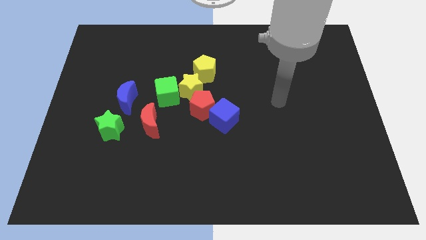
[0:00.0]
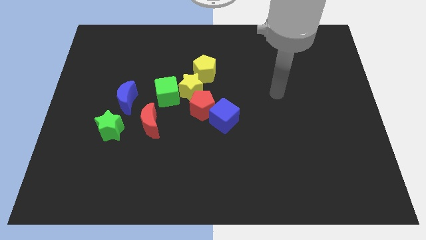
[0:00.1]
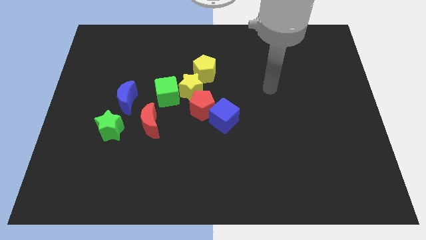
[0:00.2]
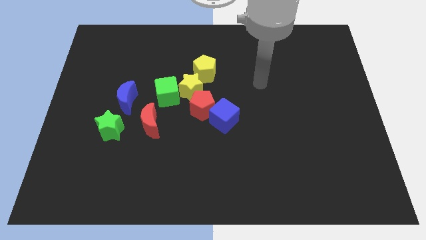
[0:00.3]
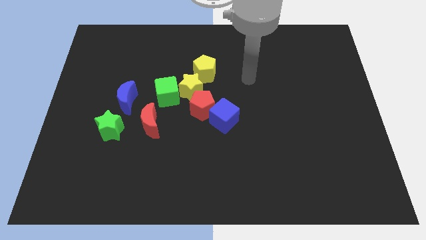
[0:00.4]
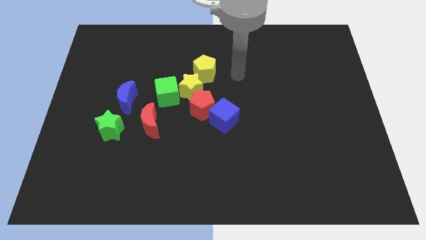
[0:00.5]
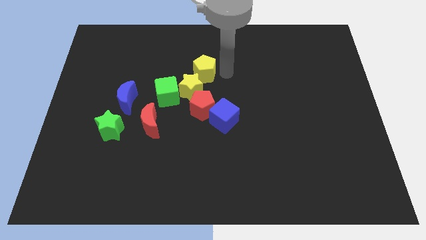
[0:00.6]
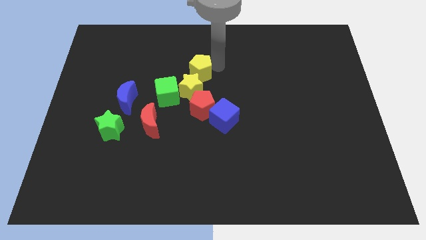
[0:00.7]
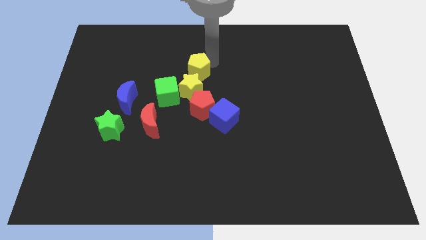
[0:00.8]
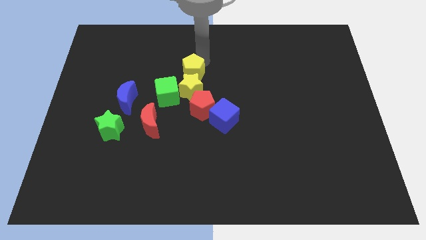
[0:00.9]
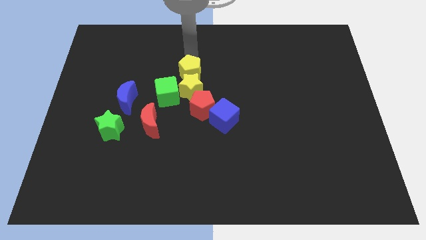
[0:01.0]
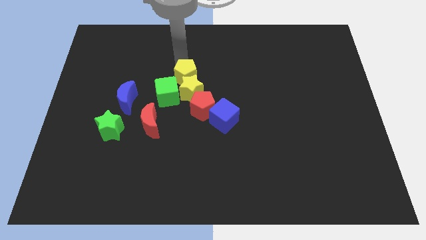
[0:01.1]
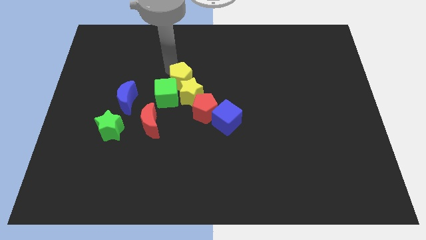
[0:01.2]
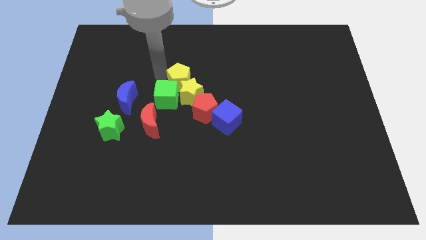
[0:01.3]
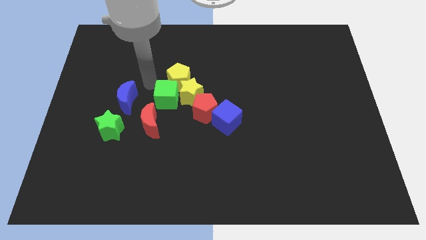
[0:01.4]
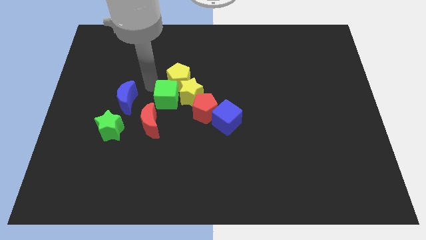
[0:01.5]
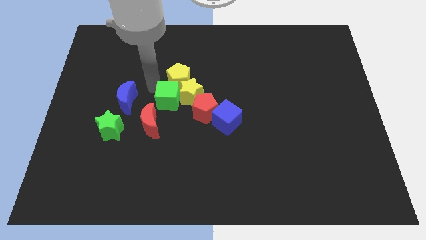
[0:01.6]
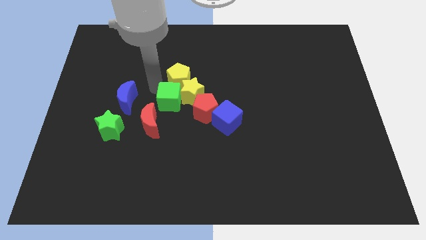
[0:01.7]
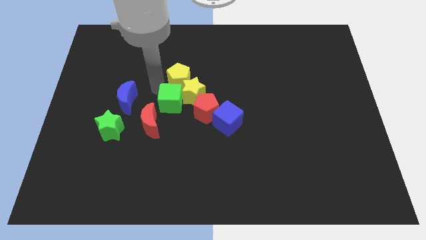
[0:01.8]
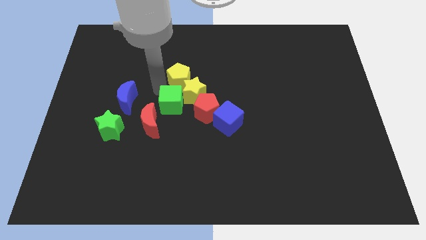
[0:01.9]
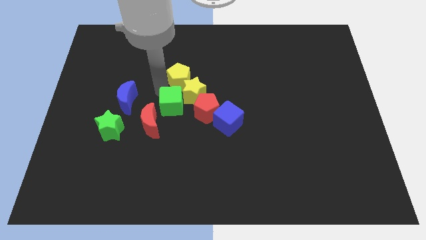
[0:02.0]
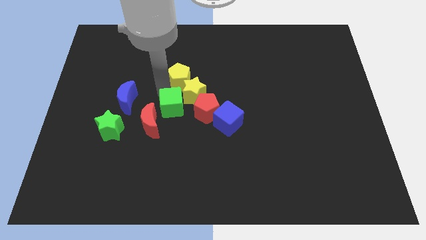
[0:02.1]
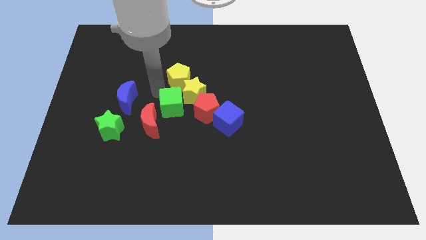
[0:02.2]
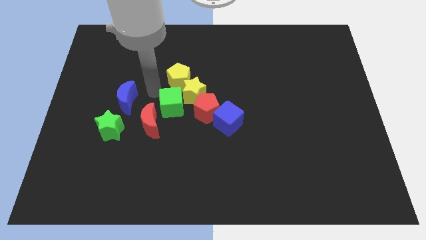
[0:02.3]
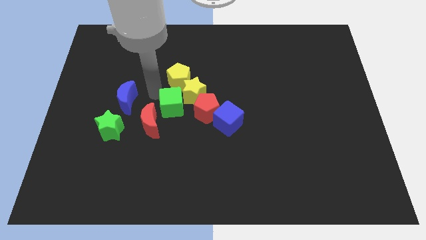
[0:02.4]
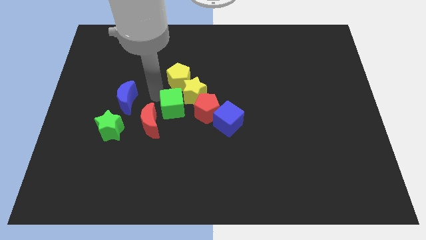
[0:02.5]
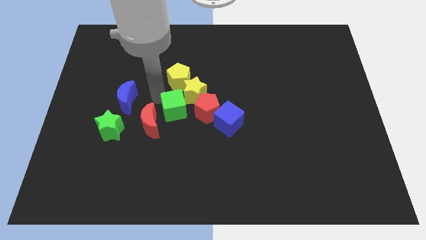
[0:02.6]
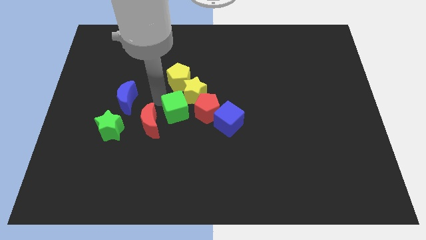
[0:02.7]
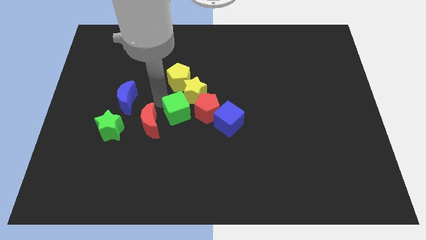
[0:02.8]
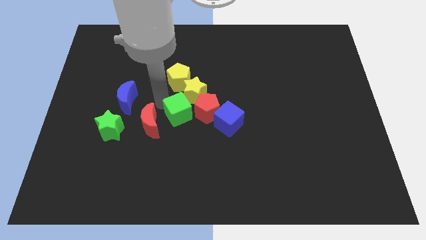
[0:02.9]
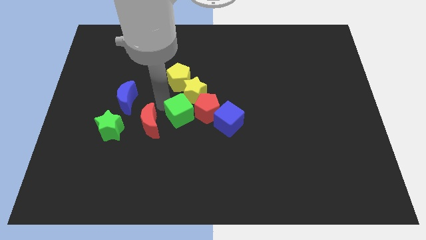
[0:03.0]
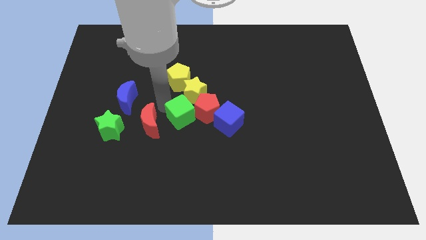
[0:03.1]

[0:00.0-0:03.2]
slightly push the green cube diagonally down and to the right

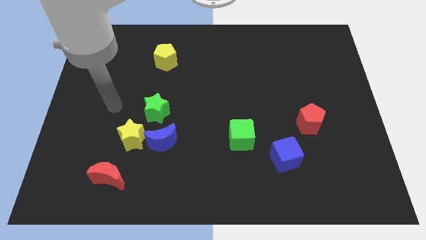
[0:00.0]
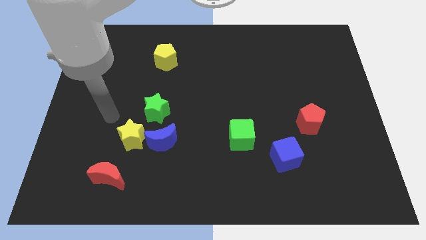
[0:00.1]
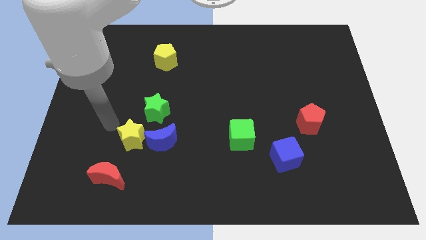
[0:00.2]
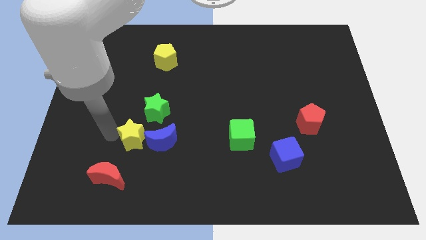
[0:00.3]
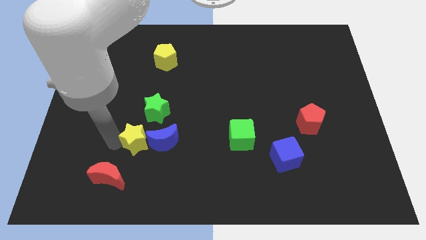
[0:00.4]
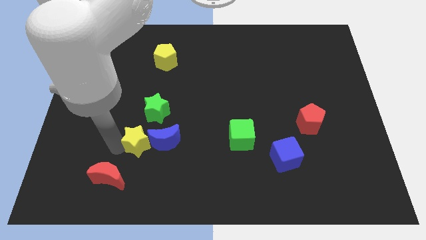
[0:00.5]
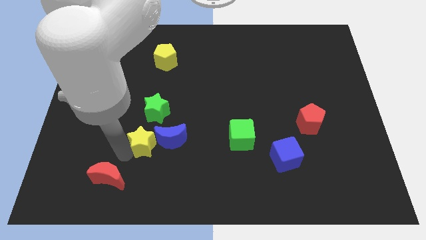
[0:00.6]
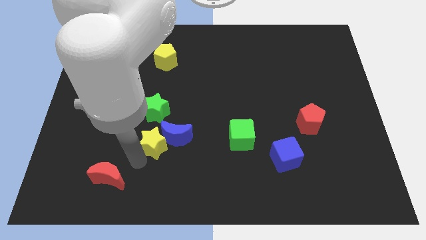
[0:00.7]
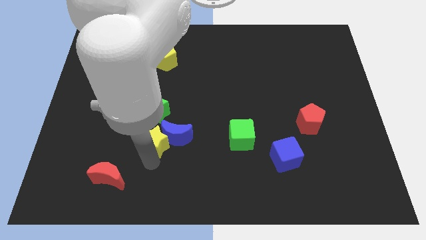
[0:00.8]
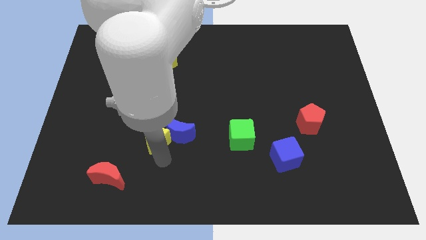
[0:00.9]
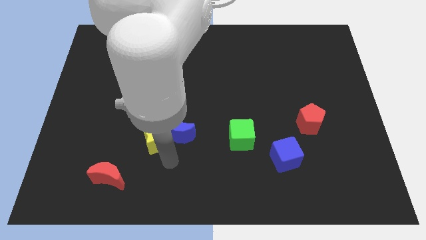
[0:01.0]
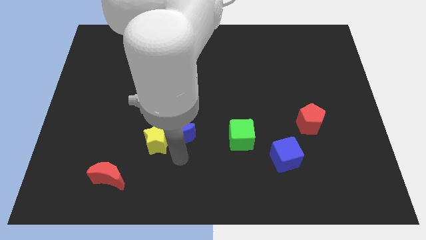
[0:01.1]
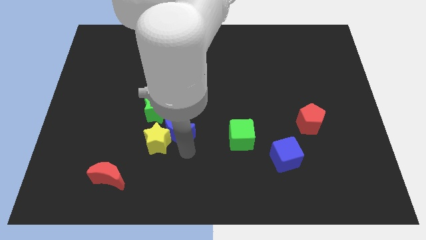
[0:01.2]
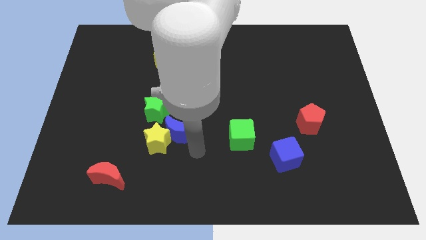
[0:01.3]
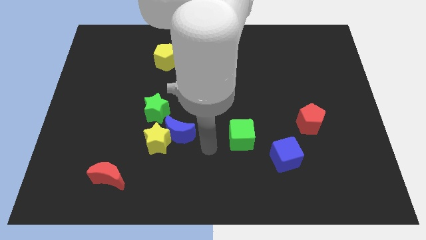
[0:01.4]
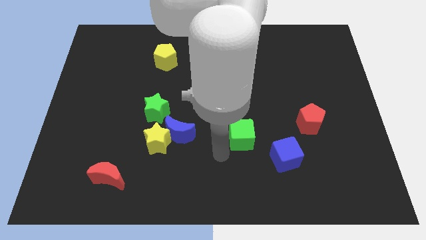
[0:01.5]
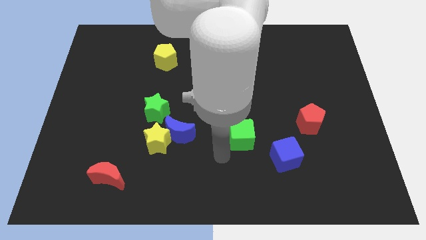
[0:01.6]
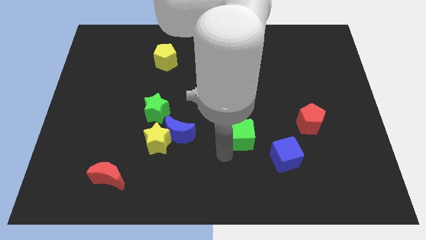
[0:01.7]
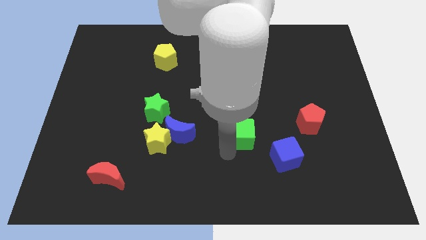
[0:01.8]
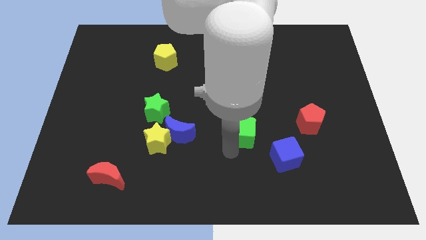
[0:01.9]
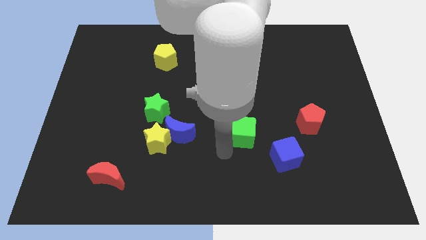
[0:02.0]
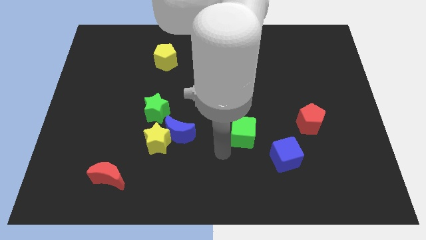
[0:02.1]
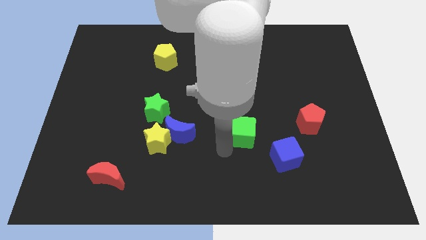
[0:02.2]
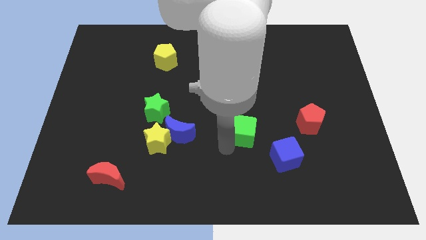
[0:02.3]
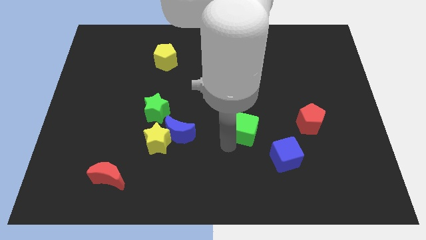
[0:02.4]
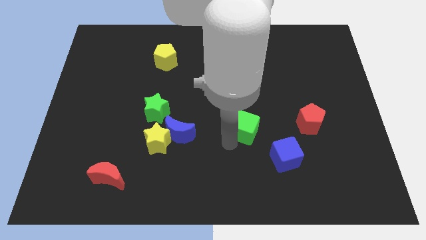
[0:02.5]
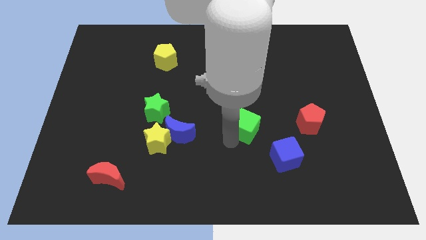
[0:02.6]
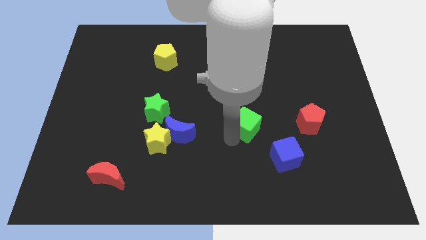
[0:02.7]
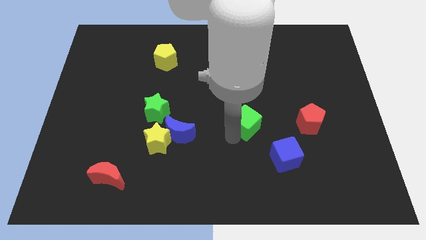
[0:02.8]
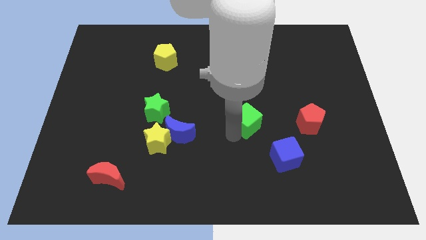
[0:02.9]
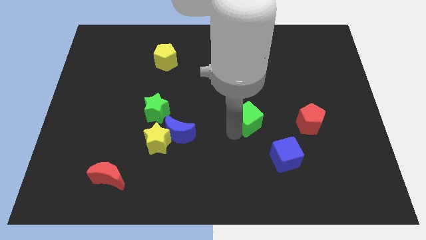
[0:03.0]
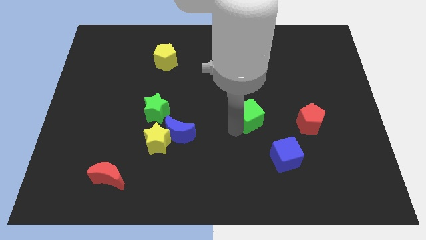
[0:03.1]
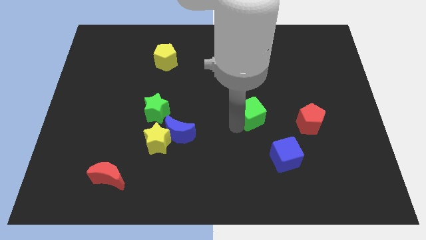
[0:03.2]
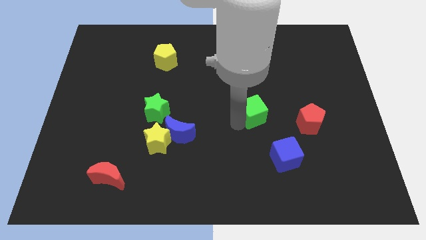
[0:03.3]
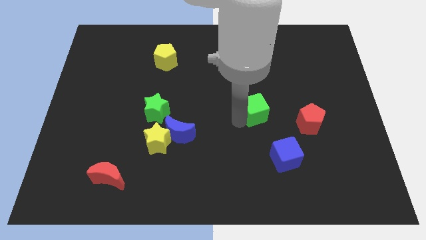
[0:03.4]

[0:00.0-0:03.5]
push the green cube diagonally upwards and to the right a little

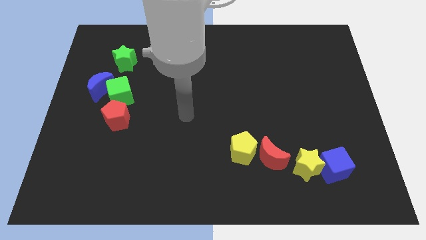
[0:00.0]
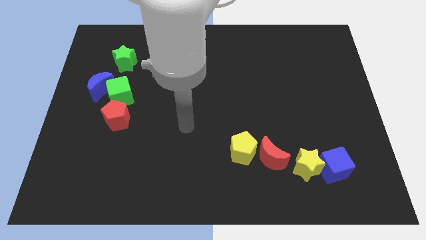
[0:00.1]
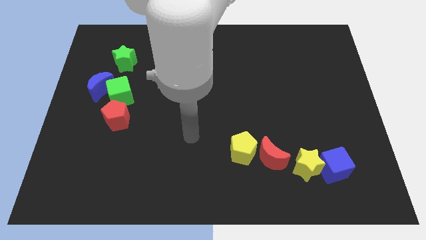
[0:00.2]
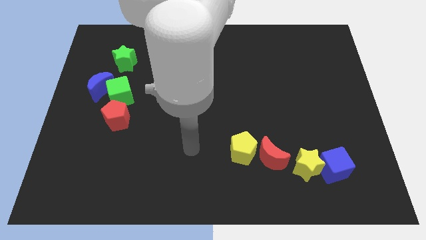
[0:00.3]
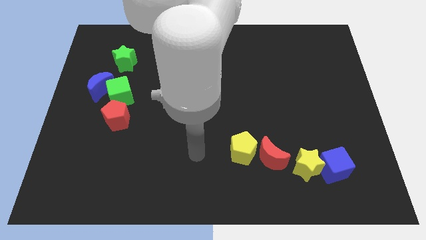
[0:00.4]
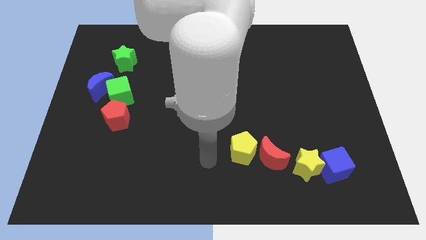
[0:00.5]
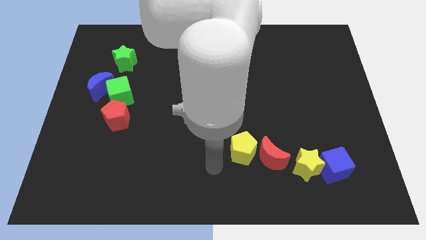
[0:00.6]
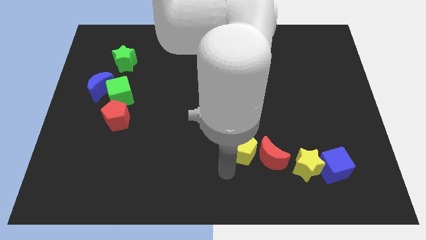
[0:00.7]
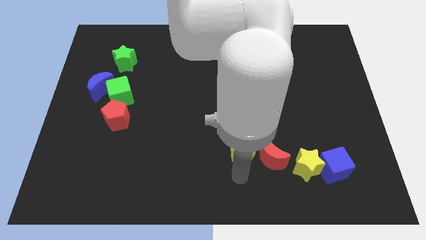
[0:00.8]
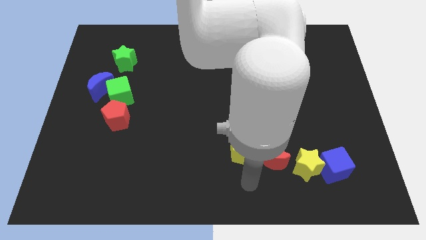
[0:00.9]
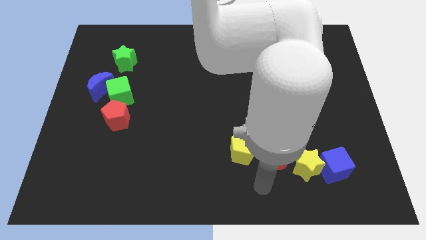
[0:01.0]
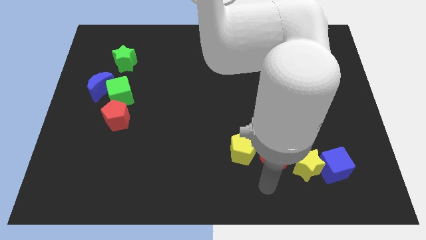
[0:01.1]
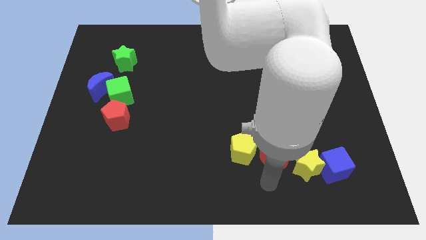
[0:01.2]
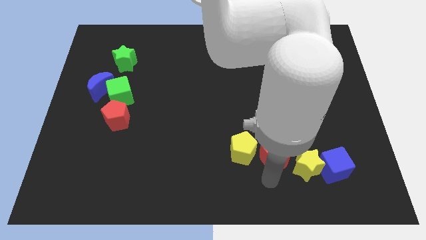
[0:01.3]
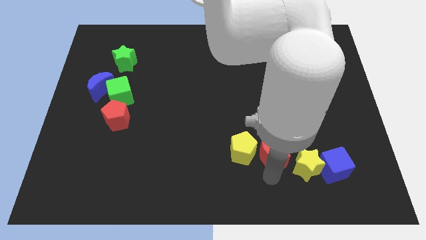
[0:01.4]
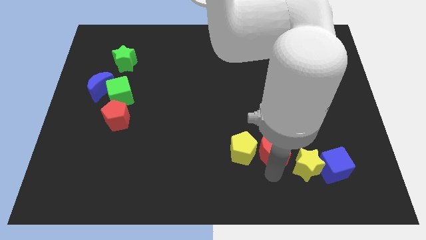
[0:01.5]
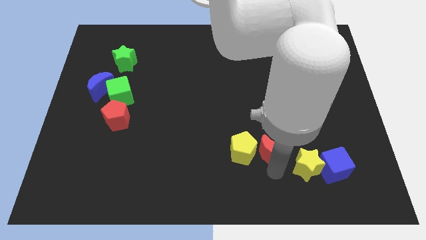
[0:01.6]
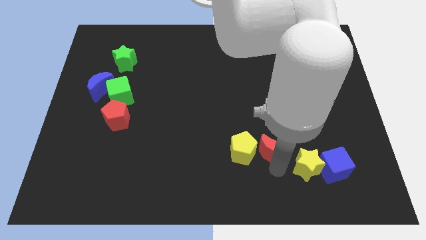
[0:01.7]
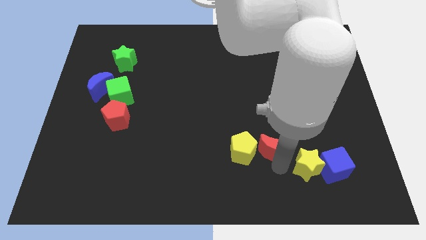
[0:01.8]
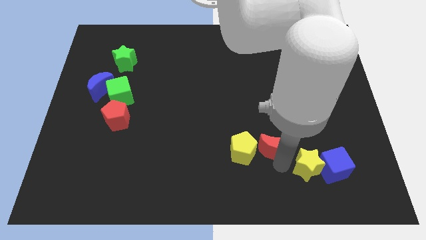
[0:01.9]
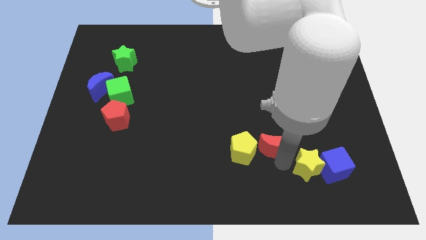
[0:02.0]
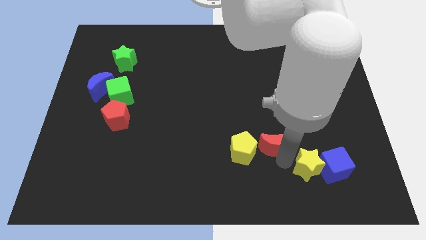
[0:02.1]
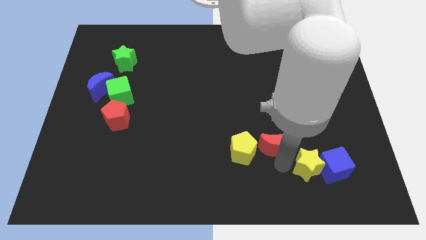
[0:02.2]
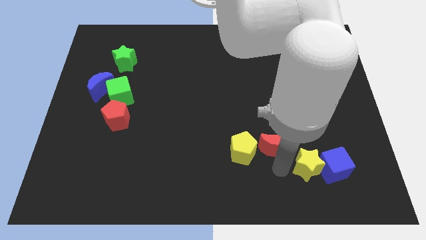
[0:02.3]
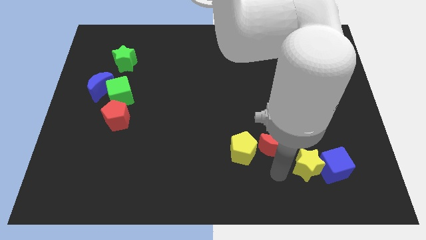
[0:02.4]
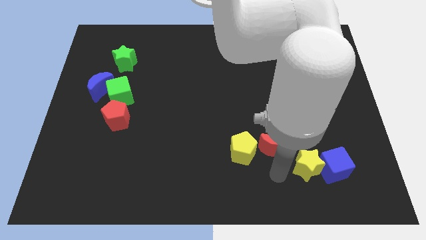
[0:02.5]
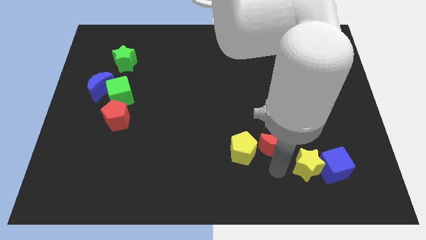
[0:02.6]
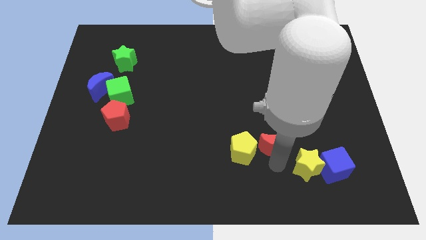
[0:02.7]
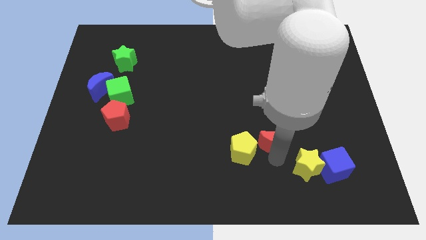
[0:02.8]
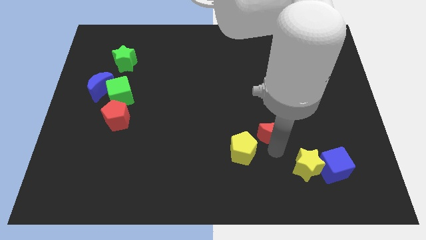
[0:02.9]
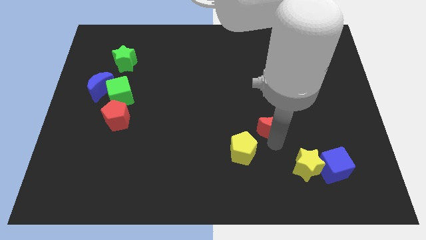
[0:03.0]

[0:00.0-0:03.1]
push the red moon slightly up
